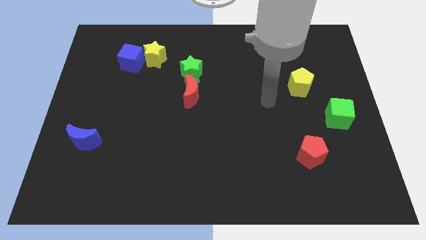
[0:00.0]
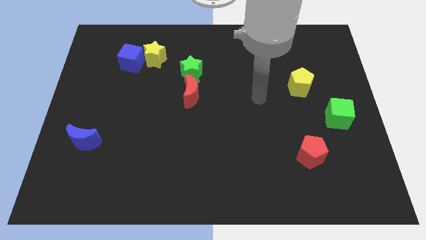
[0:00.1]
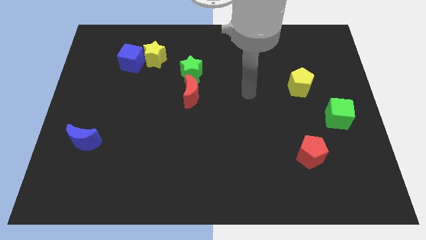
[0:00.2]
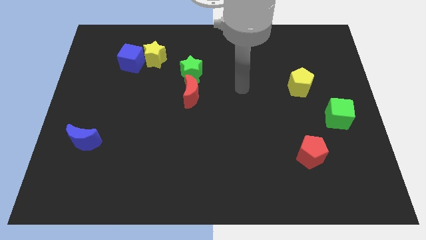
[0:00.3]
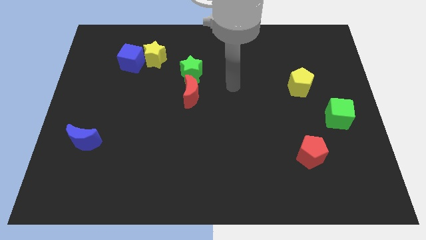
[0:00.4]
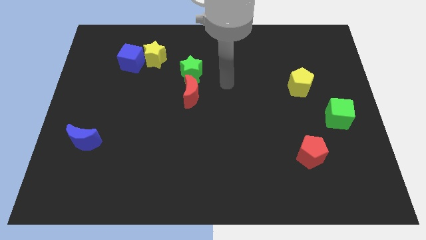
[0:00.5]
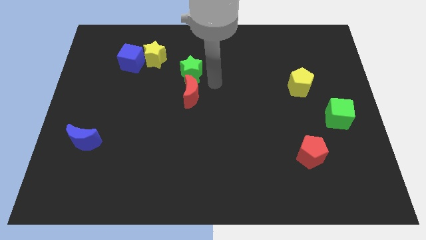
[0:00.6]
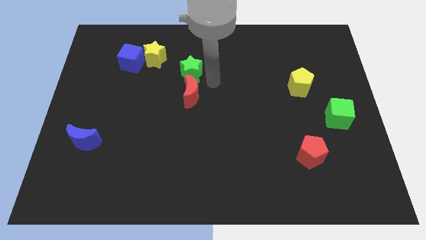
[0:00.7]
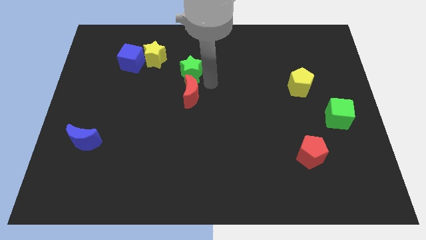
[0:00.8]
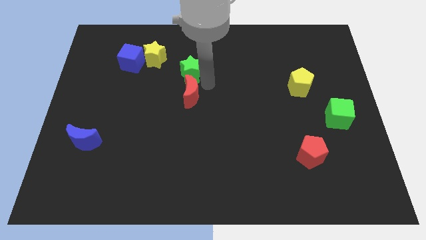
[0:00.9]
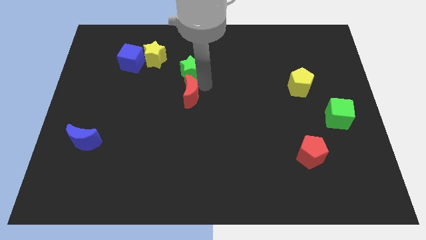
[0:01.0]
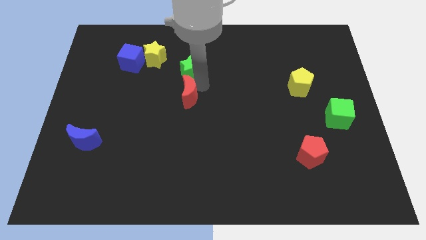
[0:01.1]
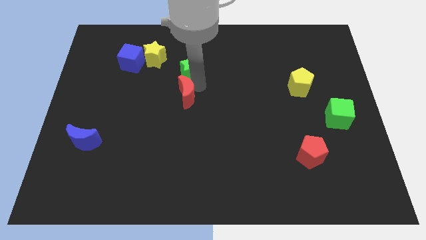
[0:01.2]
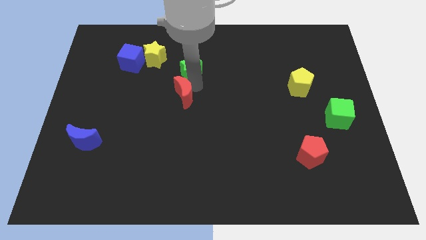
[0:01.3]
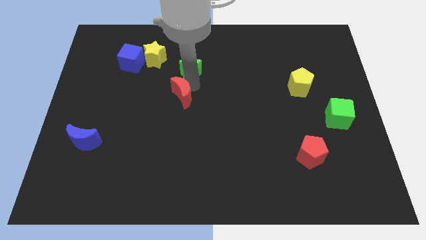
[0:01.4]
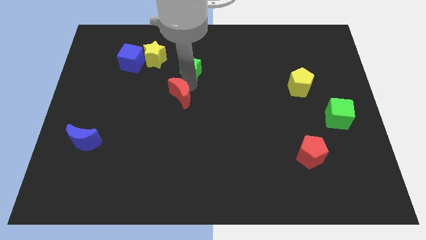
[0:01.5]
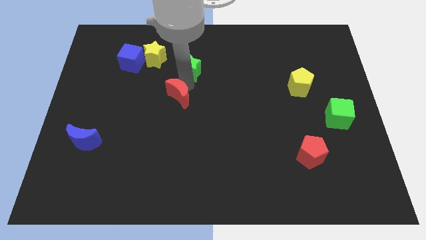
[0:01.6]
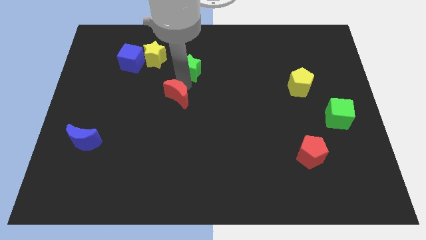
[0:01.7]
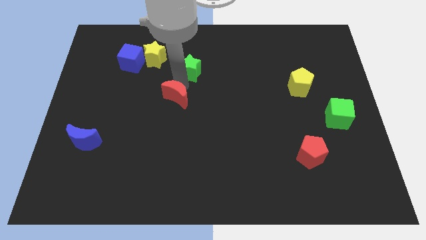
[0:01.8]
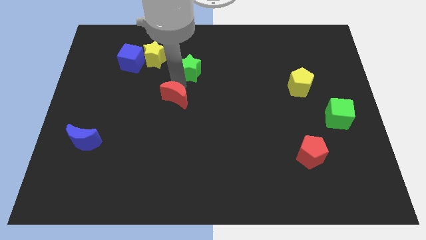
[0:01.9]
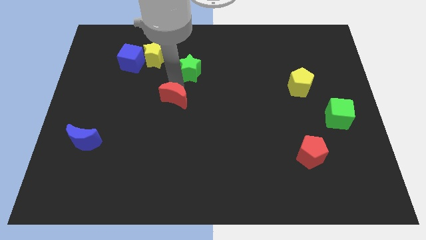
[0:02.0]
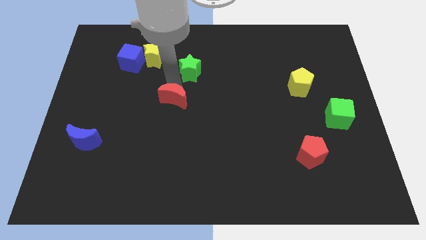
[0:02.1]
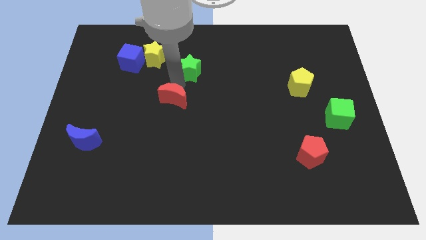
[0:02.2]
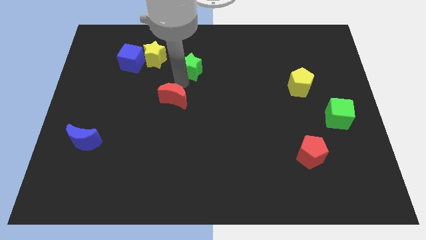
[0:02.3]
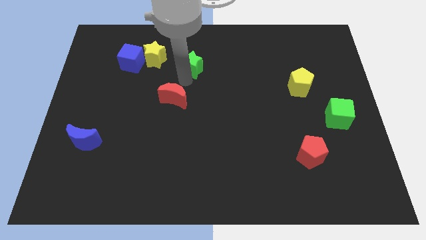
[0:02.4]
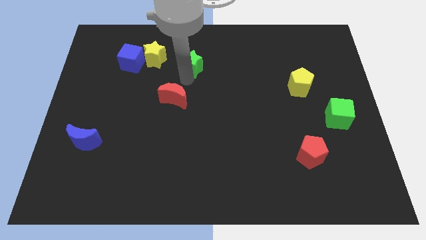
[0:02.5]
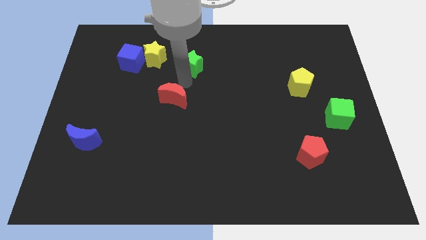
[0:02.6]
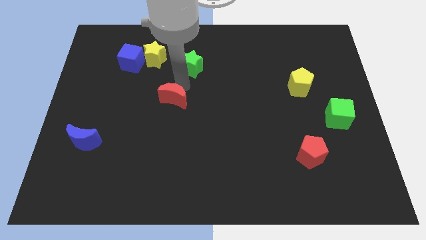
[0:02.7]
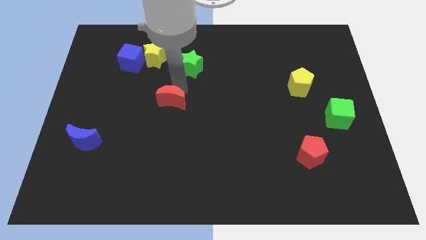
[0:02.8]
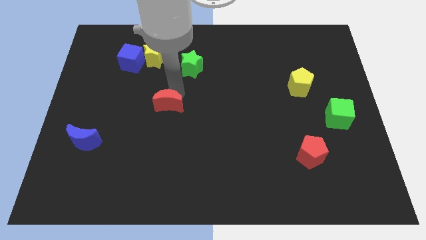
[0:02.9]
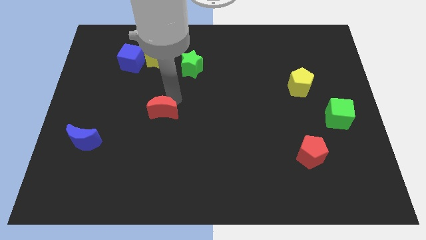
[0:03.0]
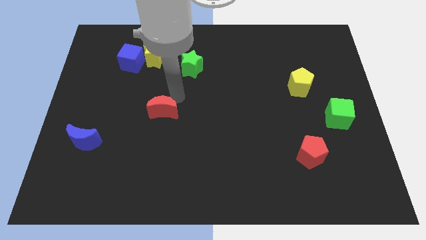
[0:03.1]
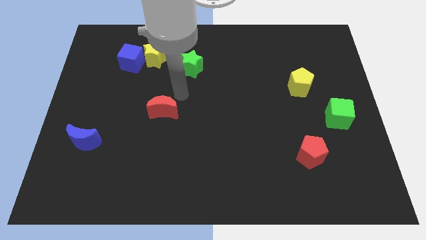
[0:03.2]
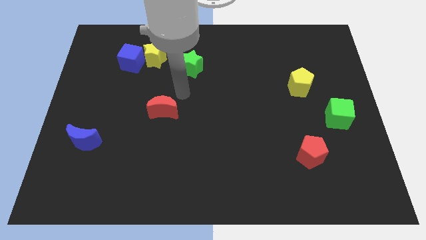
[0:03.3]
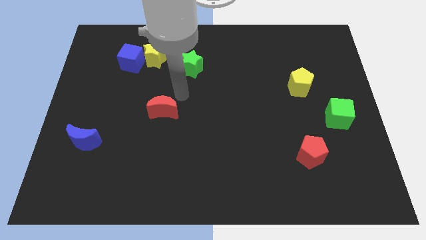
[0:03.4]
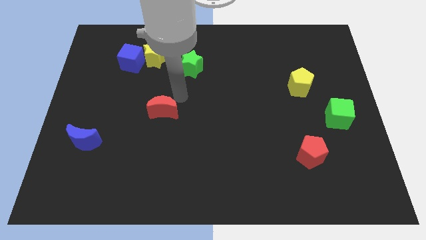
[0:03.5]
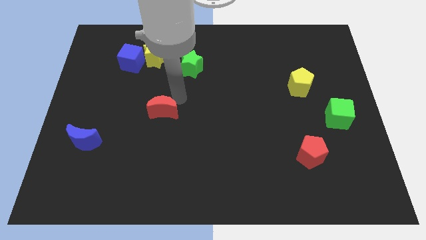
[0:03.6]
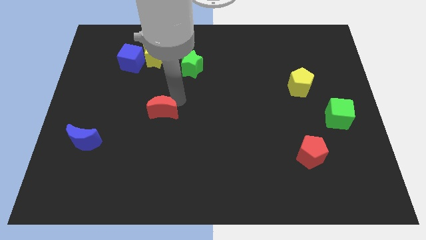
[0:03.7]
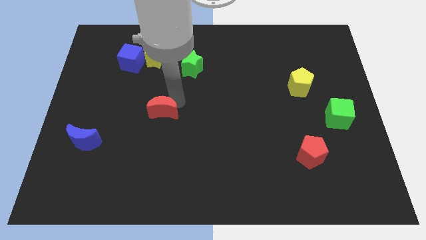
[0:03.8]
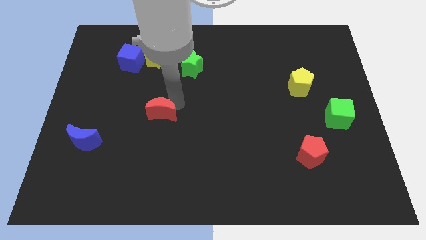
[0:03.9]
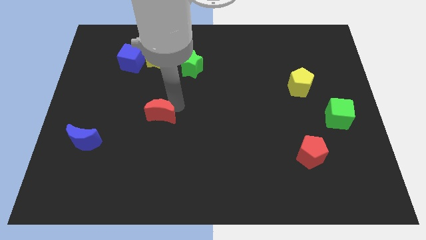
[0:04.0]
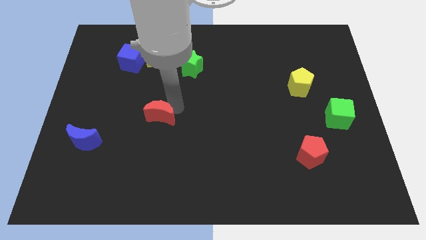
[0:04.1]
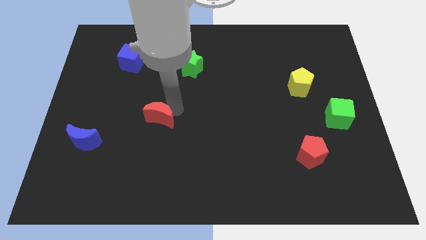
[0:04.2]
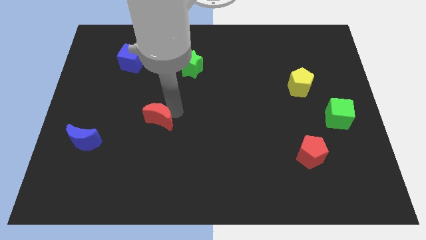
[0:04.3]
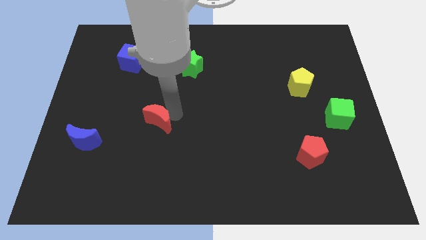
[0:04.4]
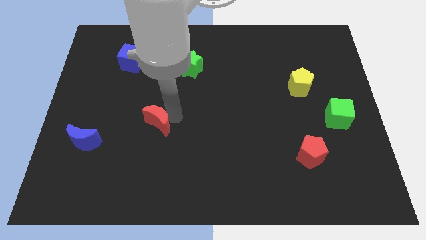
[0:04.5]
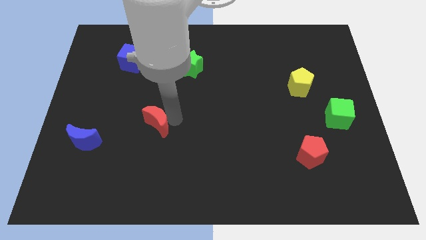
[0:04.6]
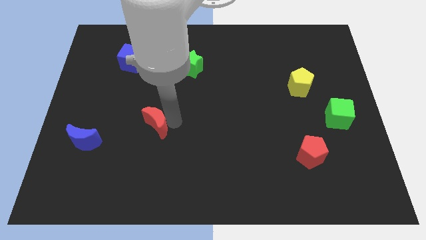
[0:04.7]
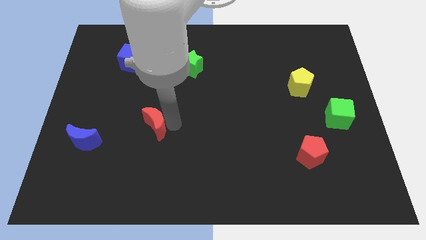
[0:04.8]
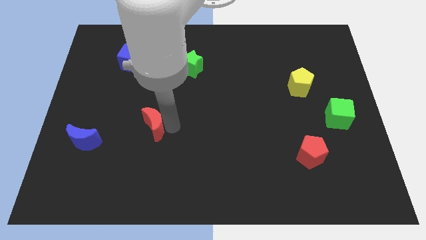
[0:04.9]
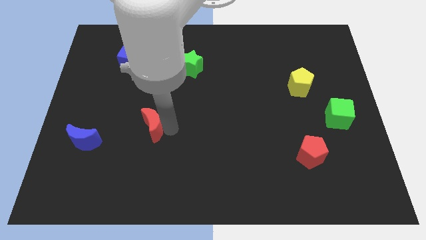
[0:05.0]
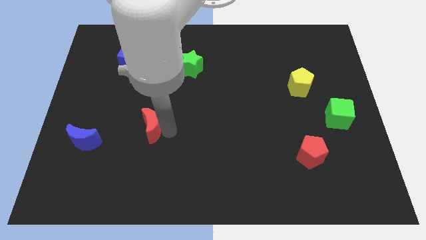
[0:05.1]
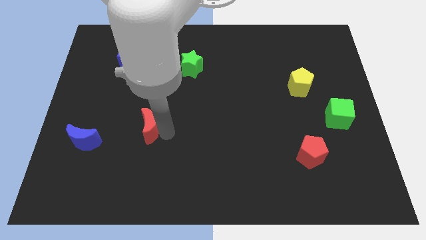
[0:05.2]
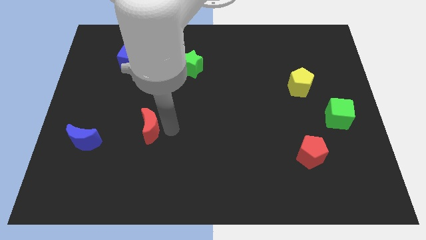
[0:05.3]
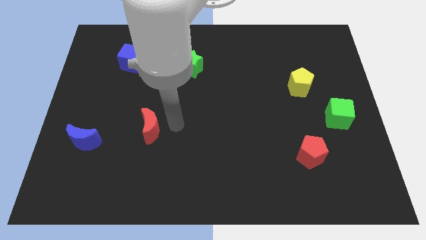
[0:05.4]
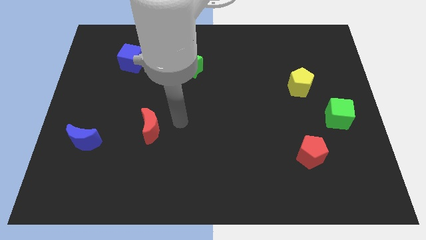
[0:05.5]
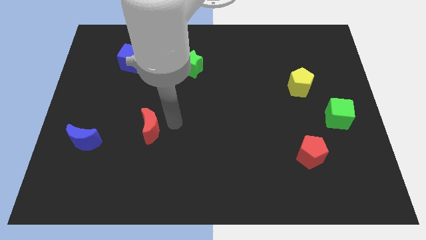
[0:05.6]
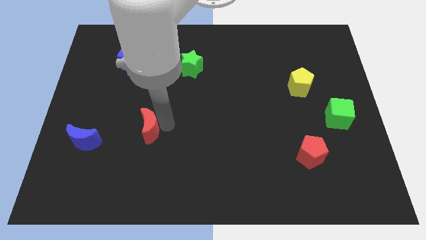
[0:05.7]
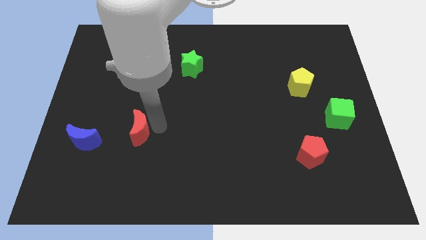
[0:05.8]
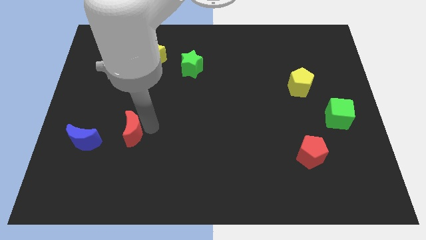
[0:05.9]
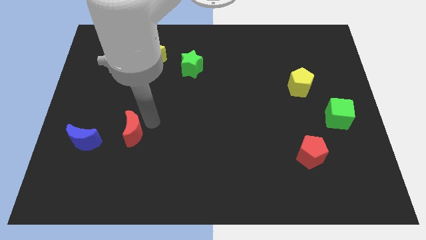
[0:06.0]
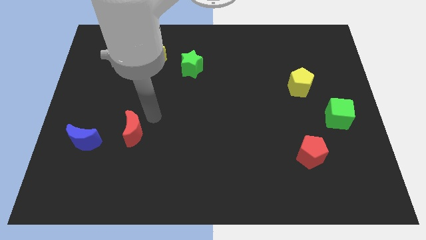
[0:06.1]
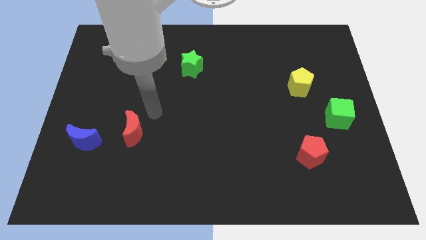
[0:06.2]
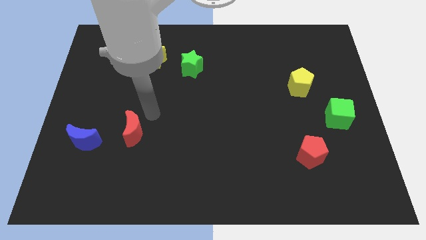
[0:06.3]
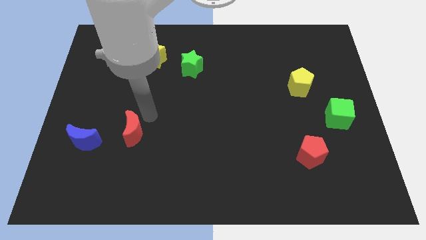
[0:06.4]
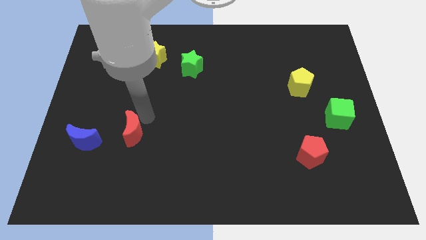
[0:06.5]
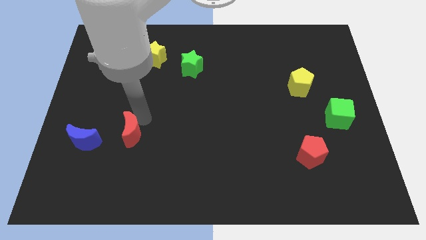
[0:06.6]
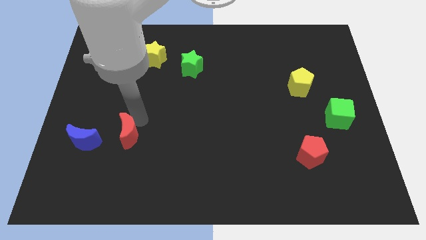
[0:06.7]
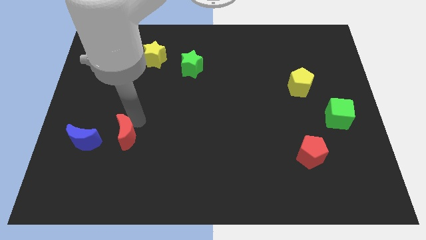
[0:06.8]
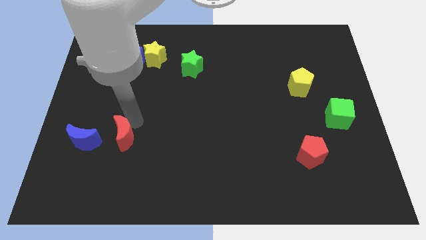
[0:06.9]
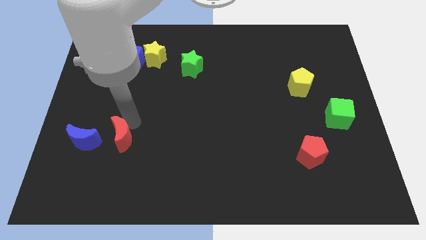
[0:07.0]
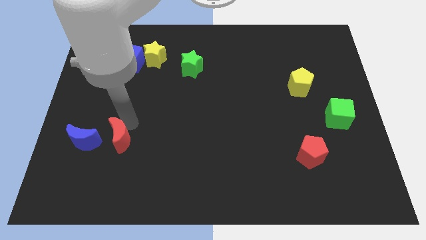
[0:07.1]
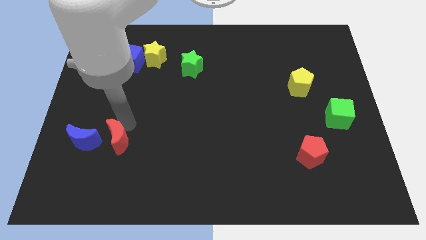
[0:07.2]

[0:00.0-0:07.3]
push the red moon downwards and then left

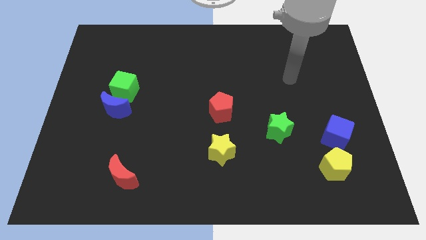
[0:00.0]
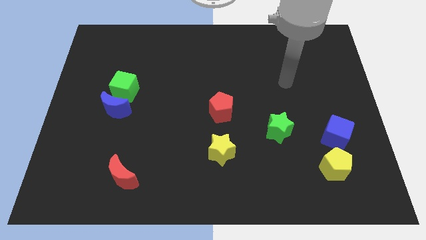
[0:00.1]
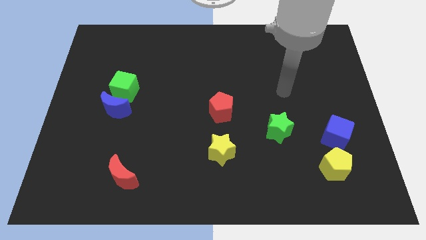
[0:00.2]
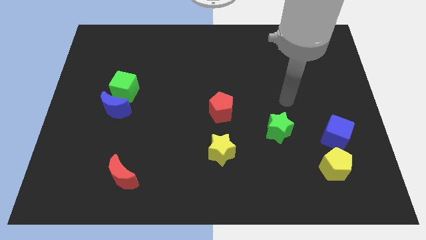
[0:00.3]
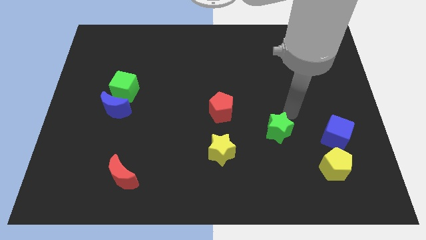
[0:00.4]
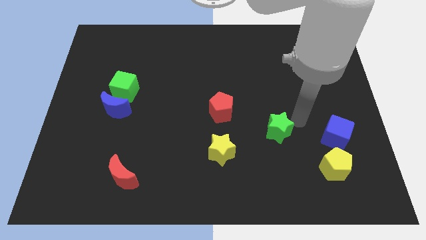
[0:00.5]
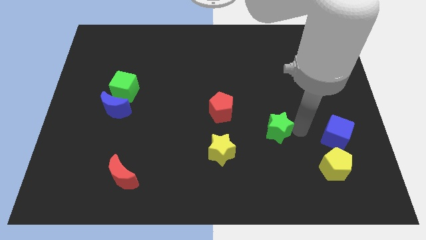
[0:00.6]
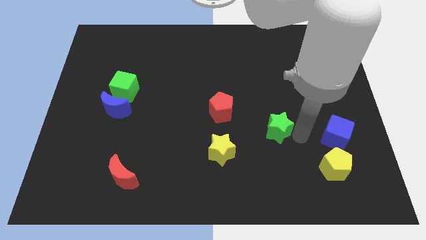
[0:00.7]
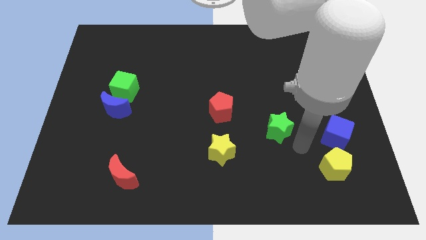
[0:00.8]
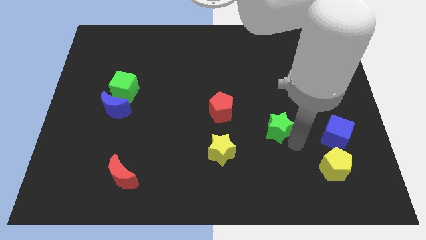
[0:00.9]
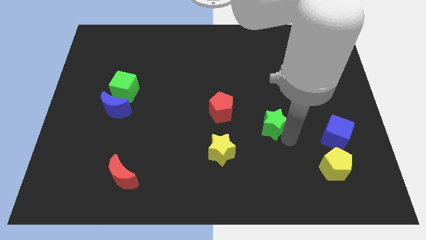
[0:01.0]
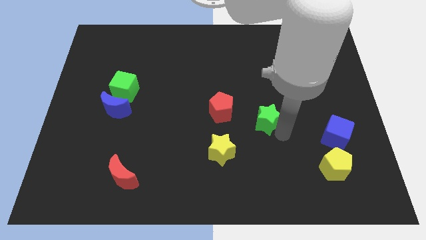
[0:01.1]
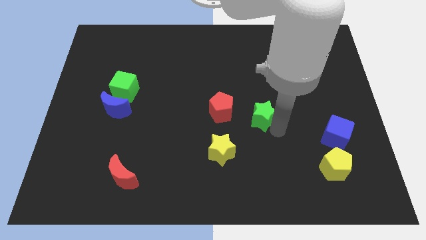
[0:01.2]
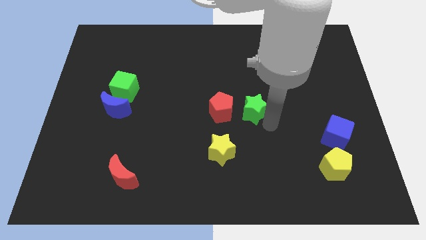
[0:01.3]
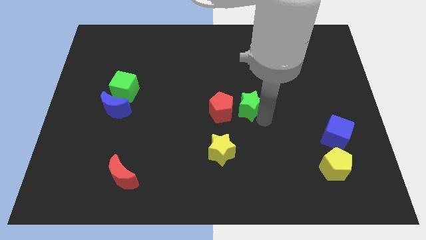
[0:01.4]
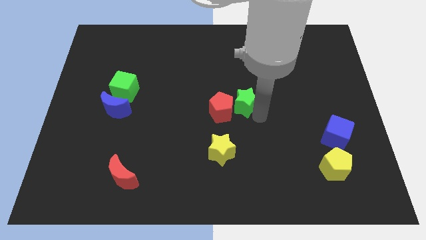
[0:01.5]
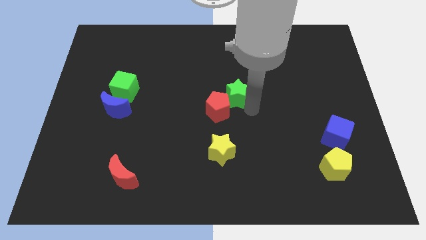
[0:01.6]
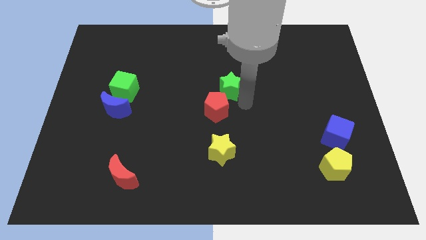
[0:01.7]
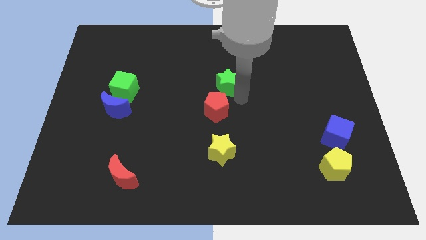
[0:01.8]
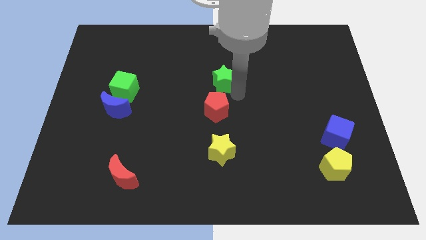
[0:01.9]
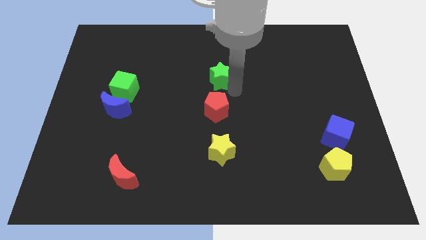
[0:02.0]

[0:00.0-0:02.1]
move the green star up and to the left
